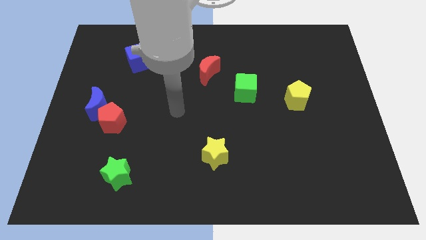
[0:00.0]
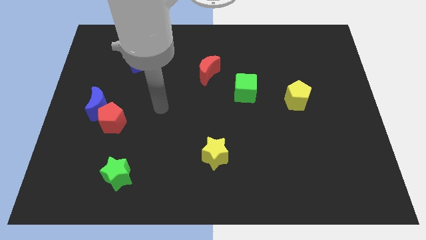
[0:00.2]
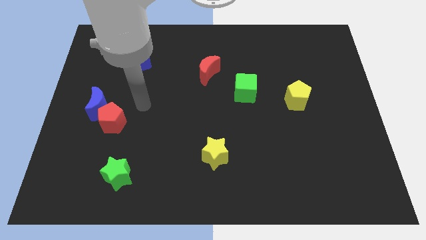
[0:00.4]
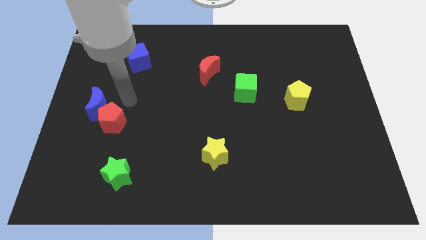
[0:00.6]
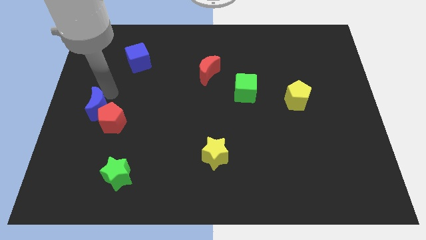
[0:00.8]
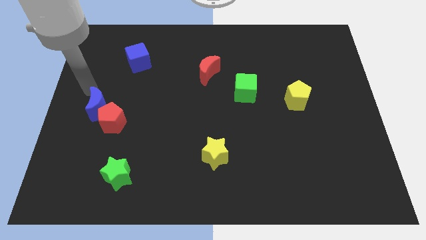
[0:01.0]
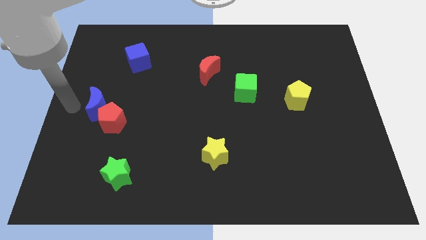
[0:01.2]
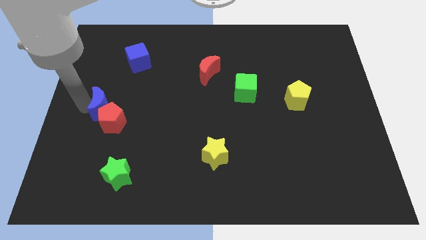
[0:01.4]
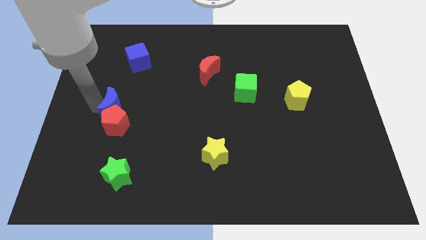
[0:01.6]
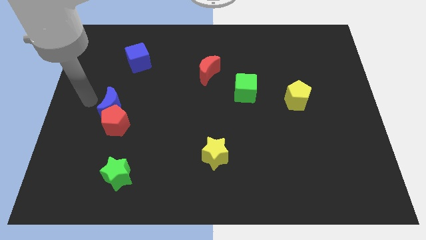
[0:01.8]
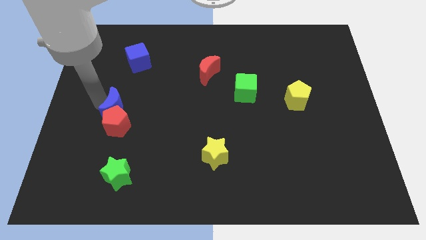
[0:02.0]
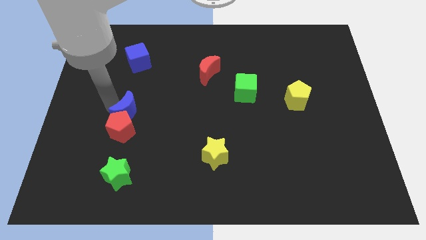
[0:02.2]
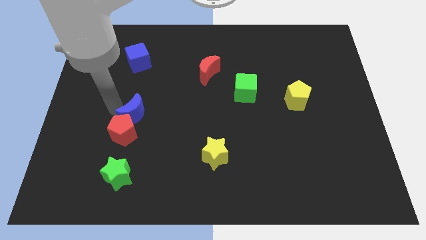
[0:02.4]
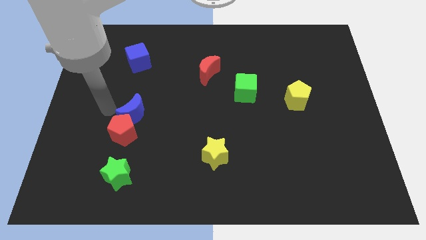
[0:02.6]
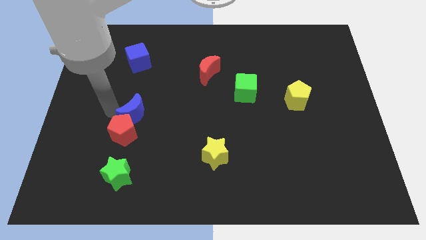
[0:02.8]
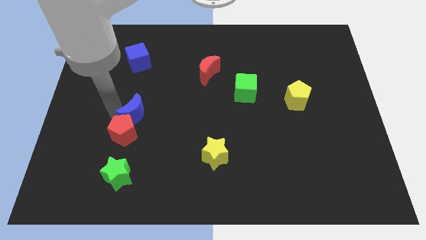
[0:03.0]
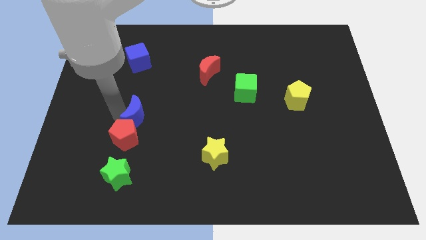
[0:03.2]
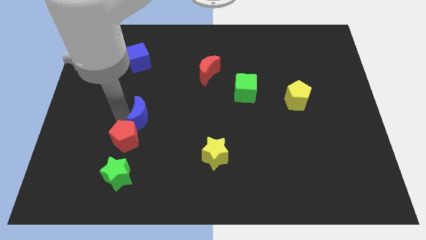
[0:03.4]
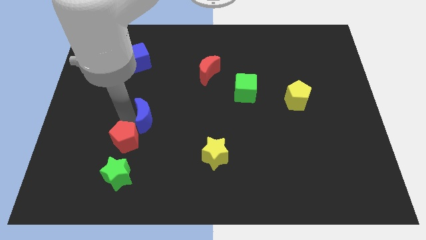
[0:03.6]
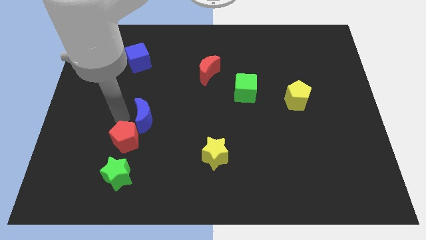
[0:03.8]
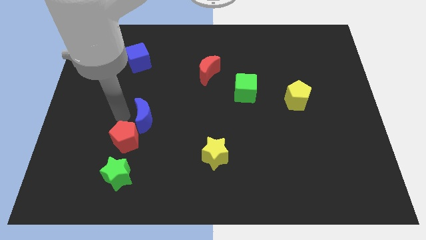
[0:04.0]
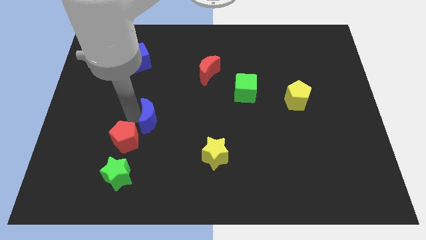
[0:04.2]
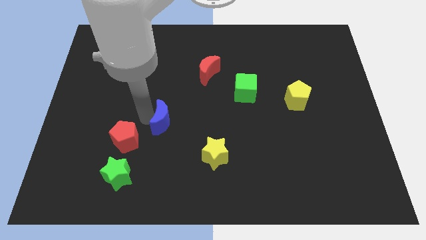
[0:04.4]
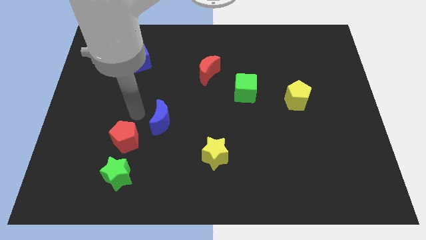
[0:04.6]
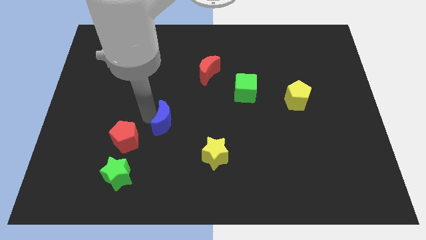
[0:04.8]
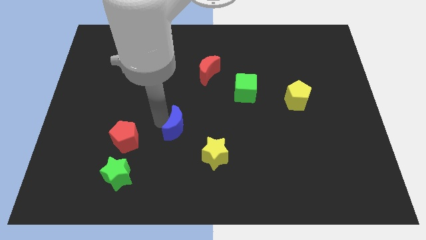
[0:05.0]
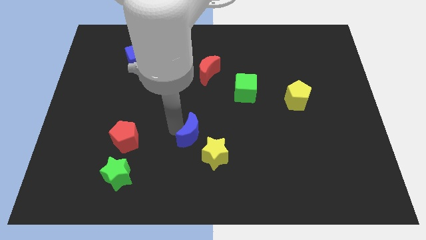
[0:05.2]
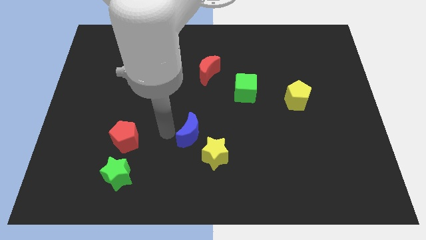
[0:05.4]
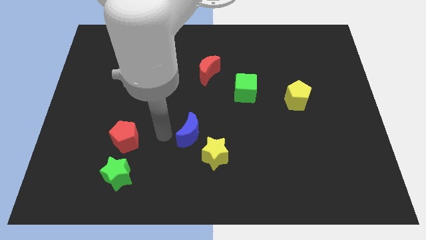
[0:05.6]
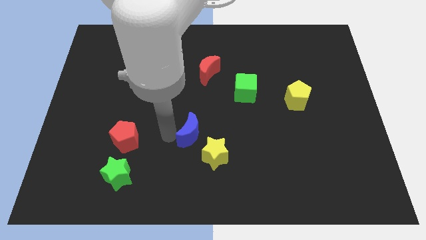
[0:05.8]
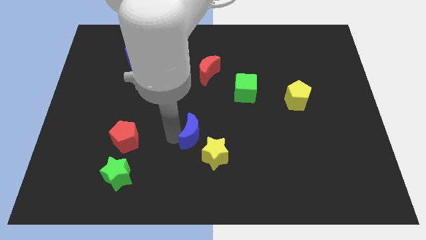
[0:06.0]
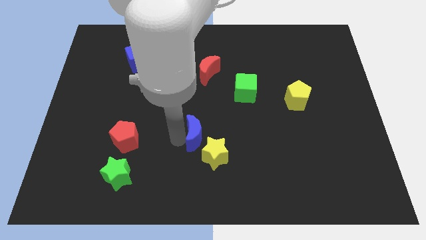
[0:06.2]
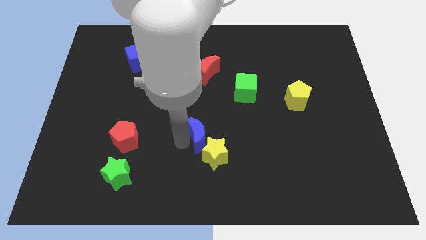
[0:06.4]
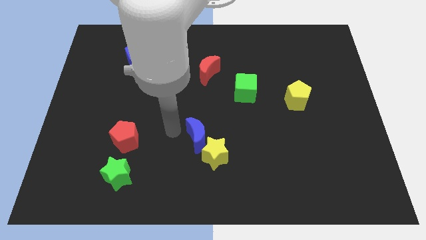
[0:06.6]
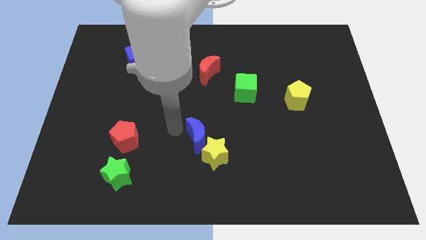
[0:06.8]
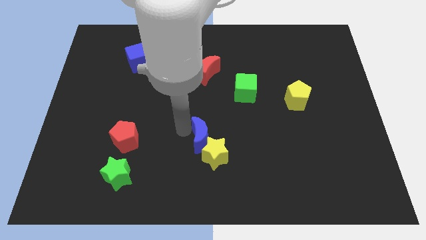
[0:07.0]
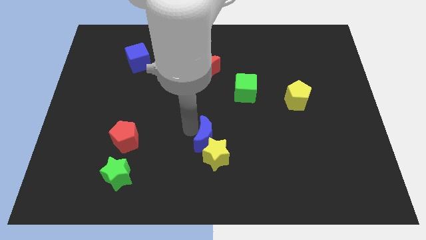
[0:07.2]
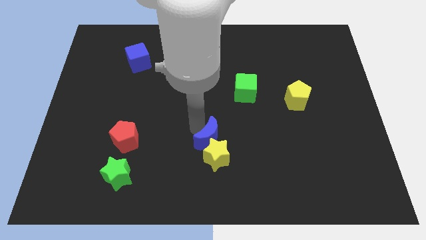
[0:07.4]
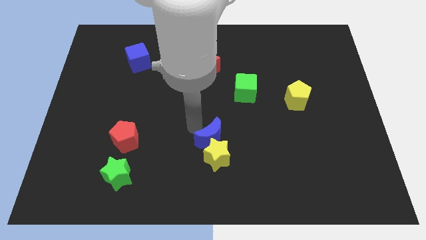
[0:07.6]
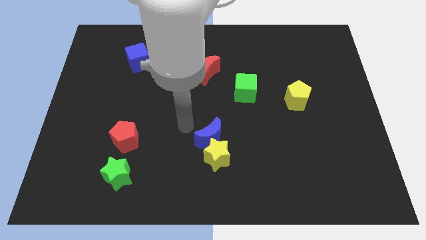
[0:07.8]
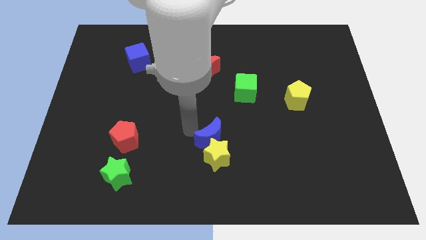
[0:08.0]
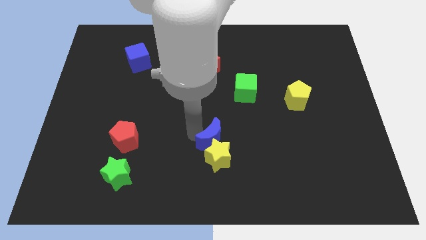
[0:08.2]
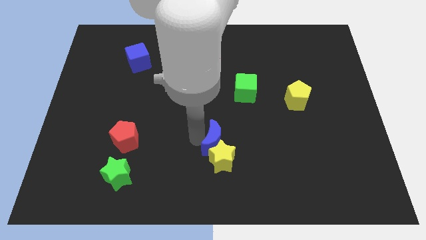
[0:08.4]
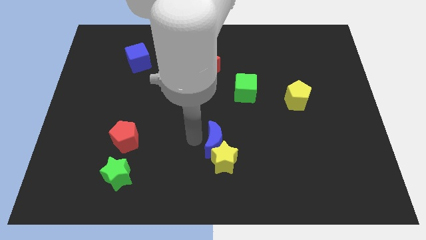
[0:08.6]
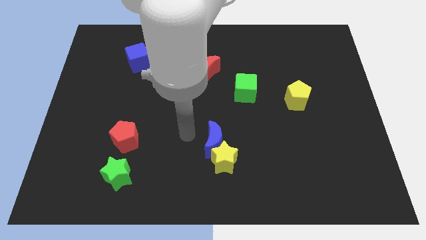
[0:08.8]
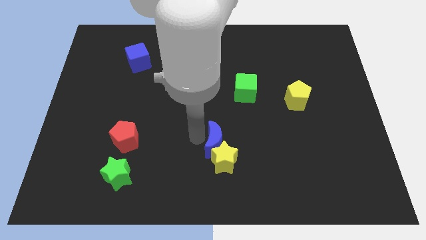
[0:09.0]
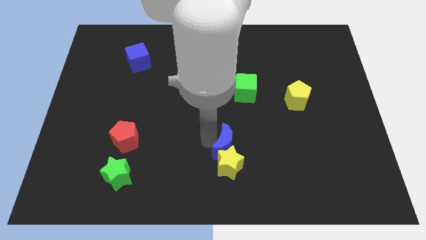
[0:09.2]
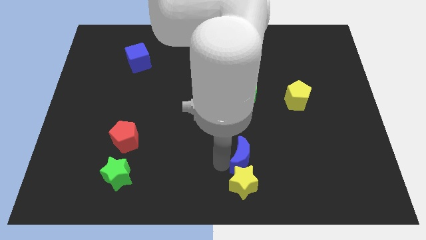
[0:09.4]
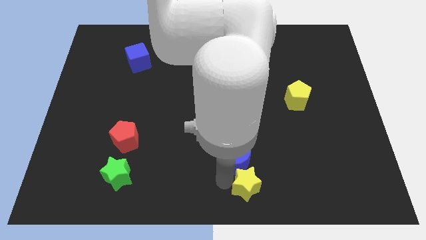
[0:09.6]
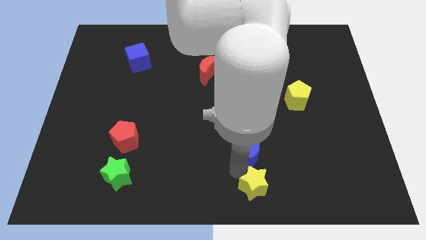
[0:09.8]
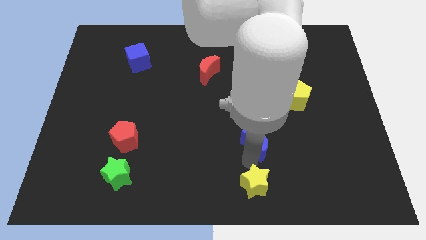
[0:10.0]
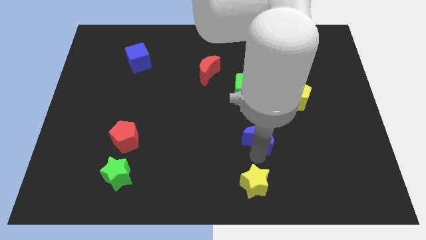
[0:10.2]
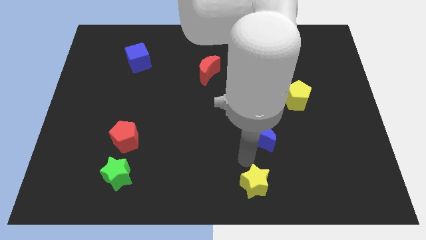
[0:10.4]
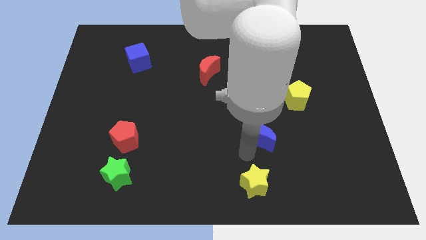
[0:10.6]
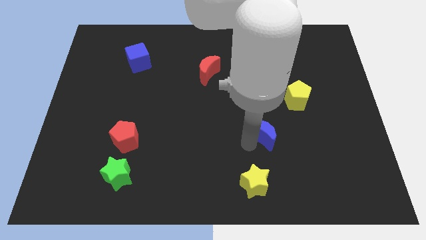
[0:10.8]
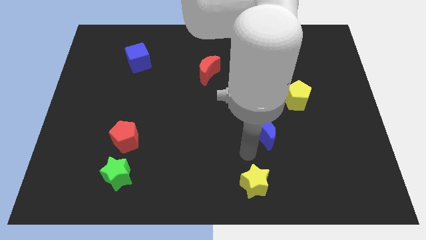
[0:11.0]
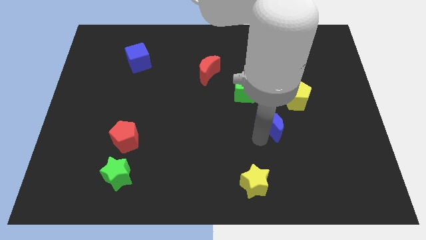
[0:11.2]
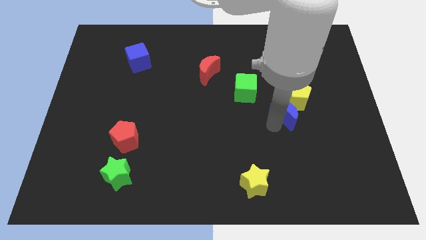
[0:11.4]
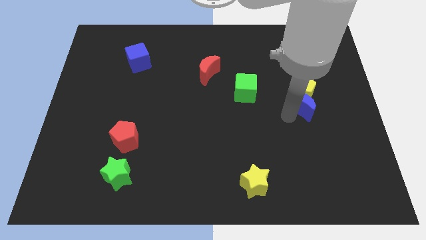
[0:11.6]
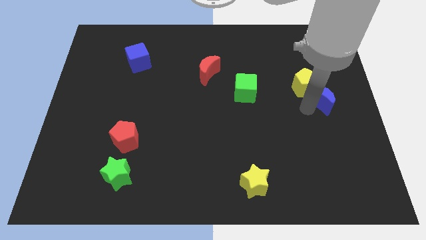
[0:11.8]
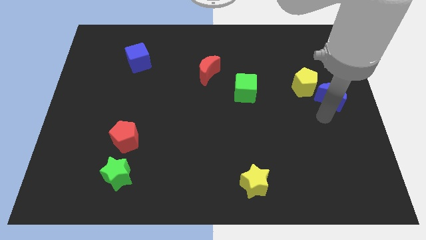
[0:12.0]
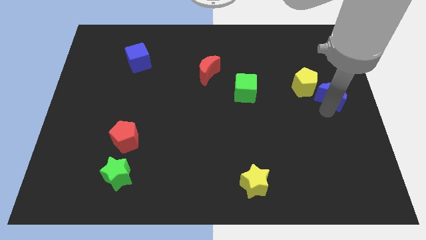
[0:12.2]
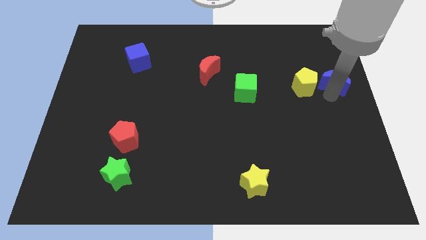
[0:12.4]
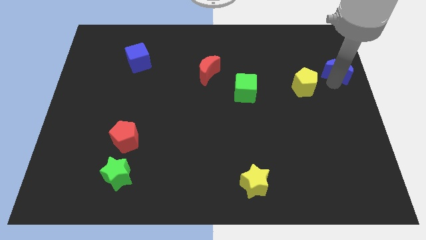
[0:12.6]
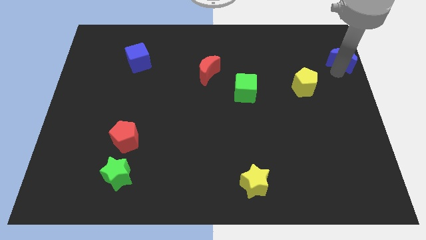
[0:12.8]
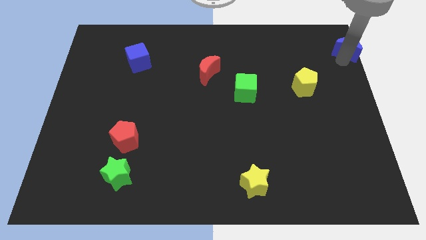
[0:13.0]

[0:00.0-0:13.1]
put the blue moon to the top right corner

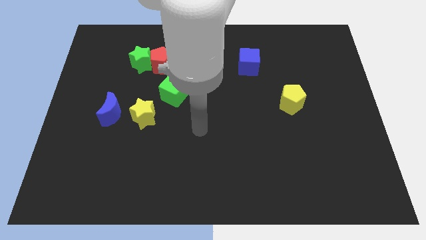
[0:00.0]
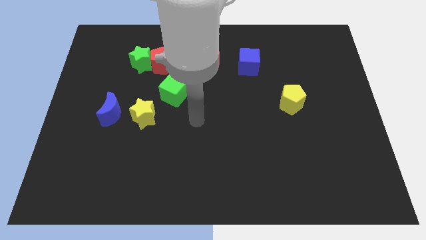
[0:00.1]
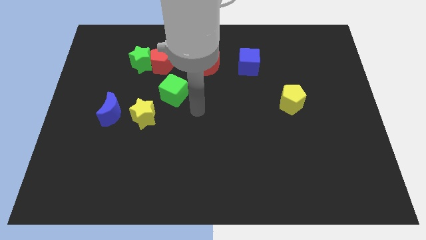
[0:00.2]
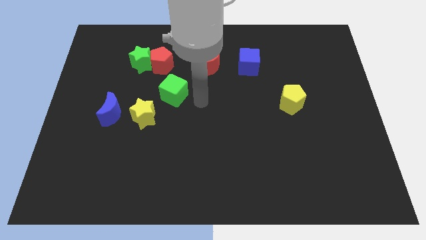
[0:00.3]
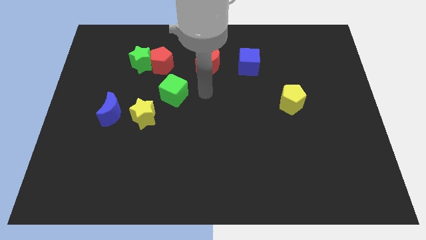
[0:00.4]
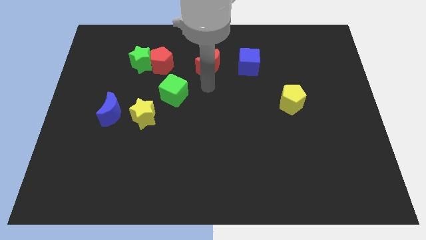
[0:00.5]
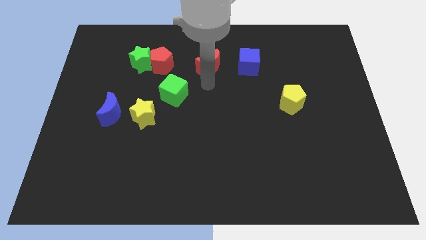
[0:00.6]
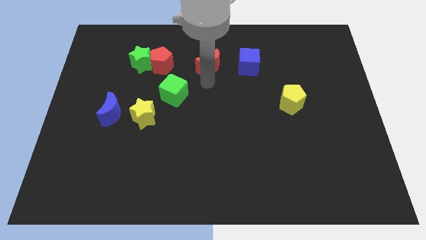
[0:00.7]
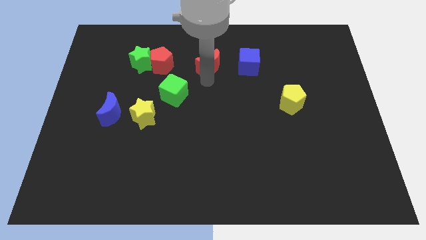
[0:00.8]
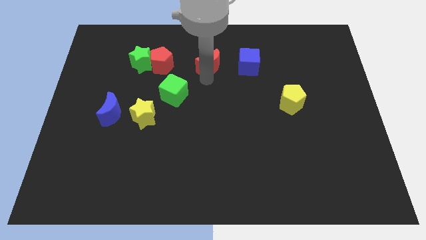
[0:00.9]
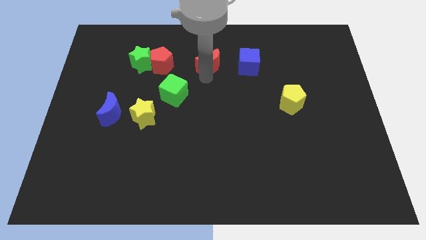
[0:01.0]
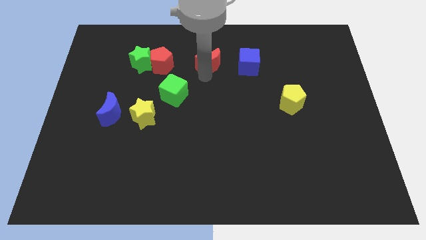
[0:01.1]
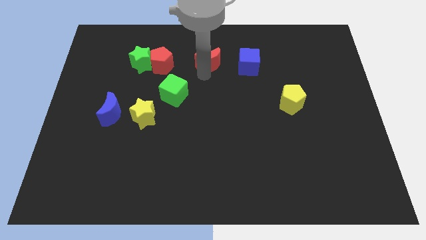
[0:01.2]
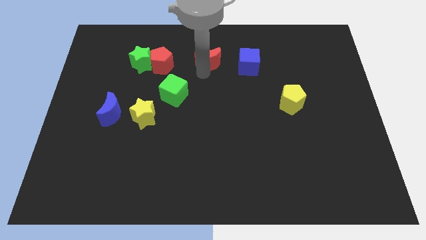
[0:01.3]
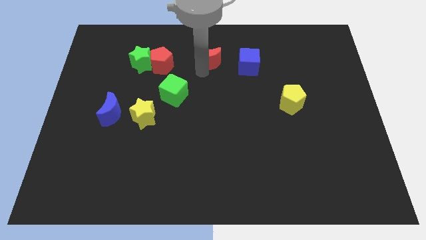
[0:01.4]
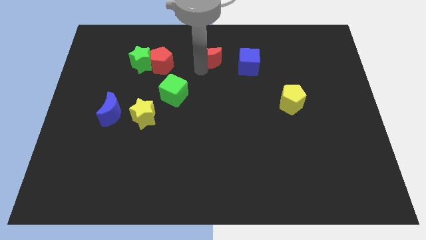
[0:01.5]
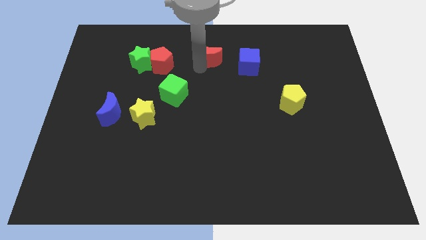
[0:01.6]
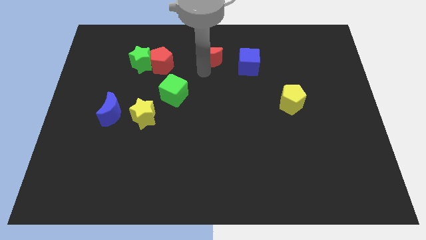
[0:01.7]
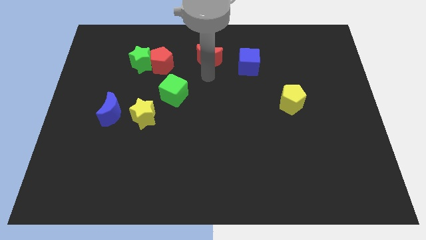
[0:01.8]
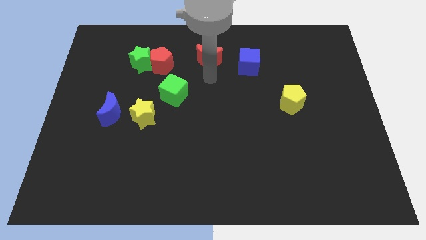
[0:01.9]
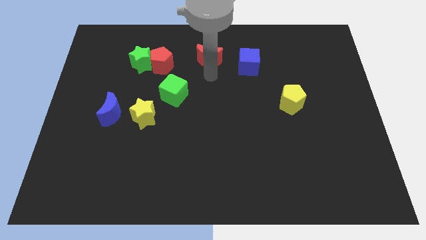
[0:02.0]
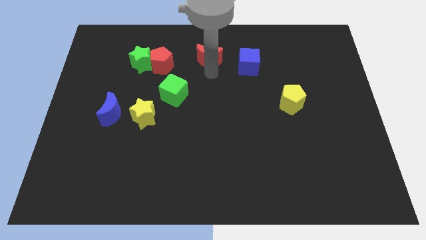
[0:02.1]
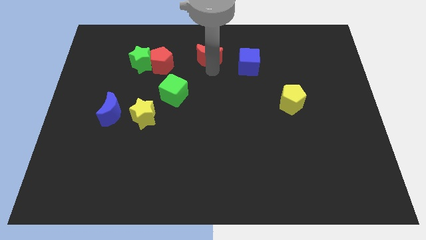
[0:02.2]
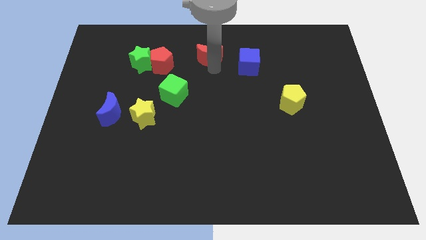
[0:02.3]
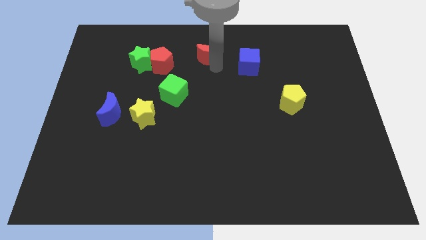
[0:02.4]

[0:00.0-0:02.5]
put the red moon to the top
